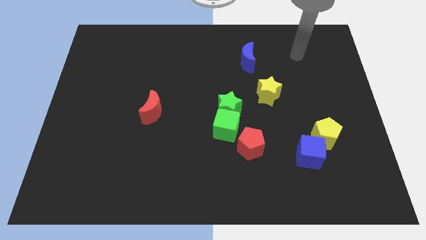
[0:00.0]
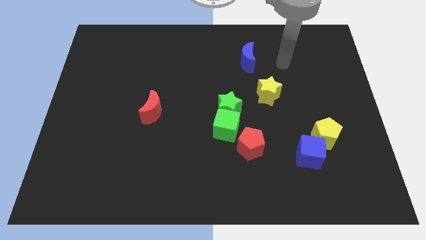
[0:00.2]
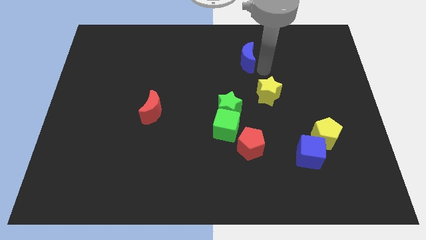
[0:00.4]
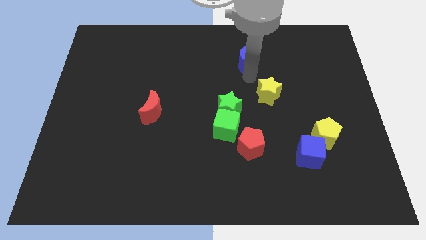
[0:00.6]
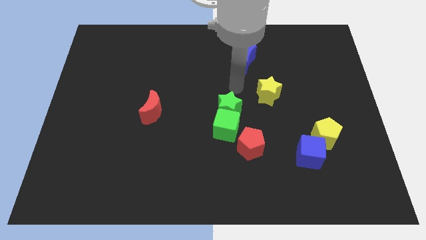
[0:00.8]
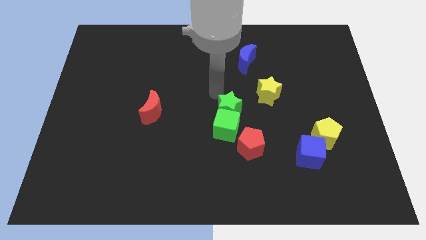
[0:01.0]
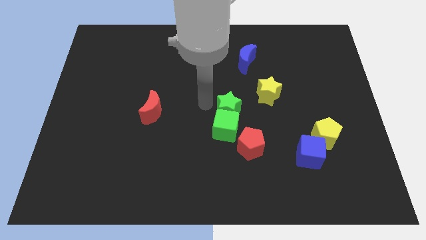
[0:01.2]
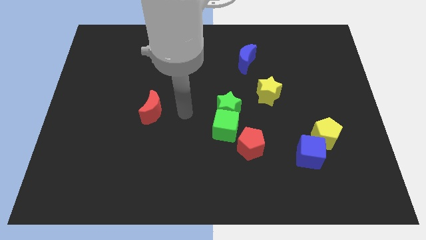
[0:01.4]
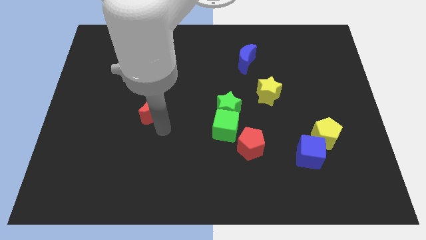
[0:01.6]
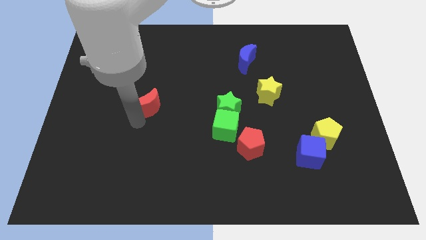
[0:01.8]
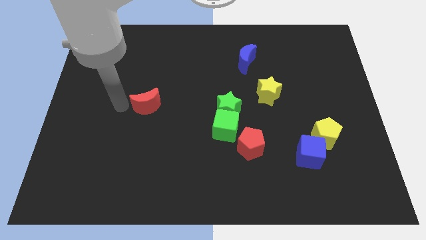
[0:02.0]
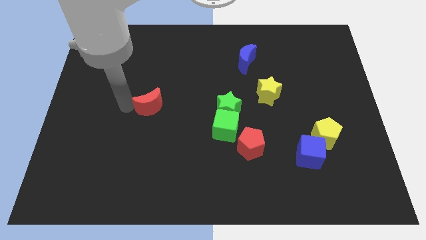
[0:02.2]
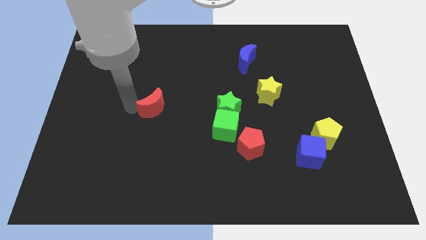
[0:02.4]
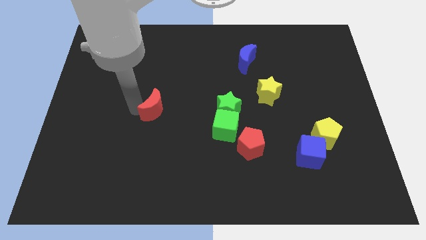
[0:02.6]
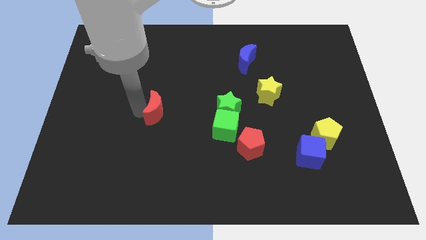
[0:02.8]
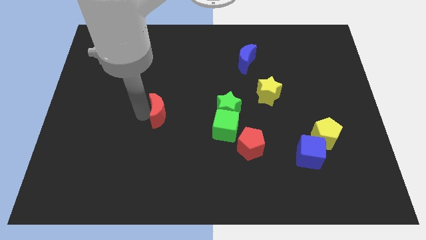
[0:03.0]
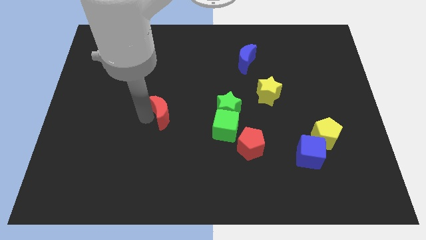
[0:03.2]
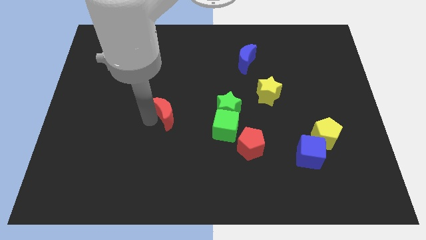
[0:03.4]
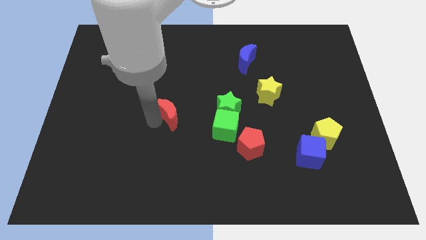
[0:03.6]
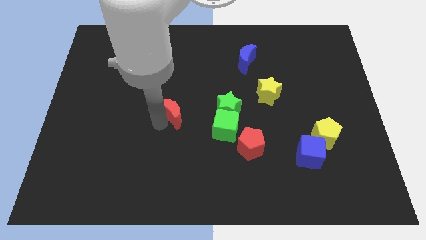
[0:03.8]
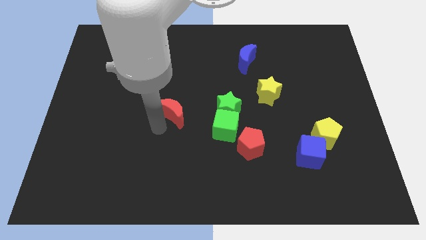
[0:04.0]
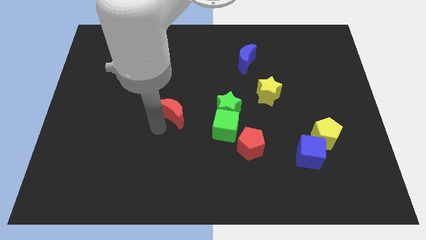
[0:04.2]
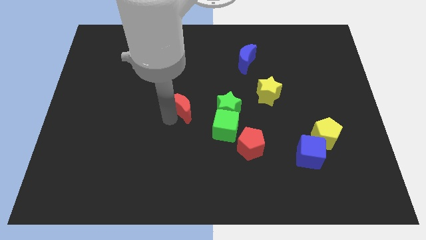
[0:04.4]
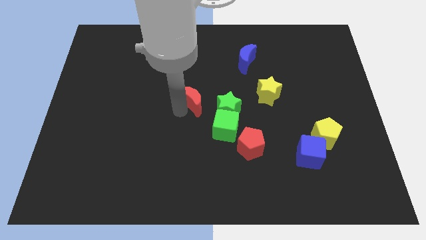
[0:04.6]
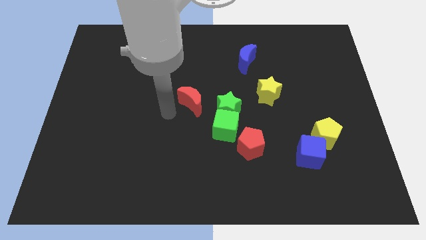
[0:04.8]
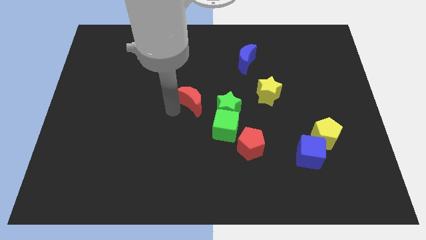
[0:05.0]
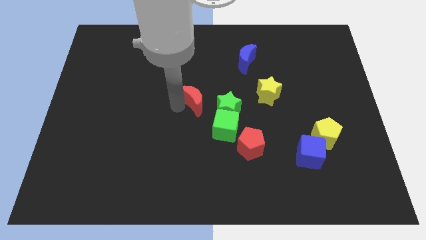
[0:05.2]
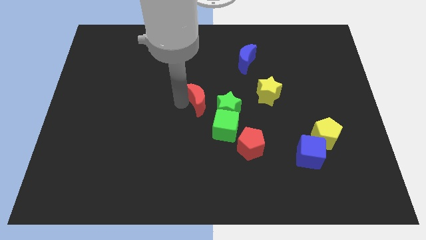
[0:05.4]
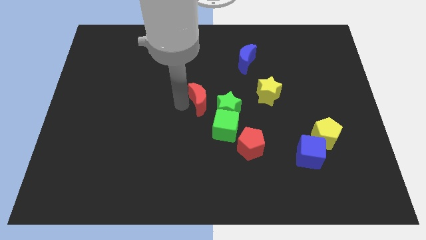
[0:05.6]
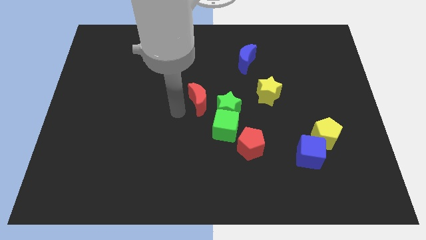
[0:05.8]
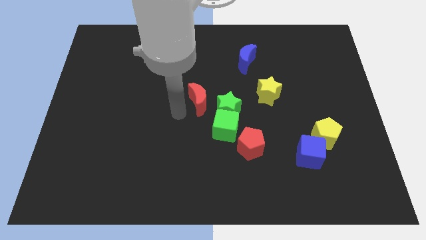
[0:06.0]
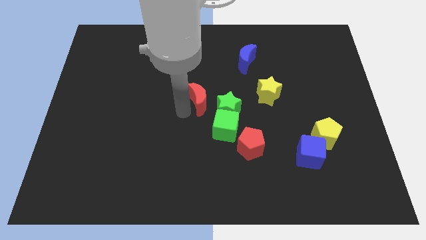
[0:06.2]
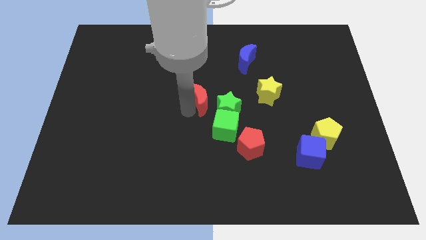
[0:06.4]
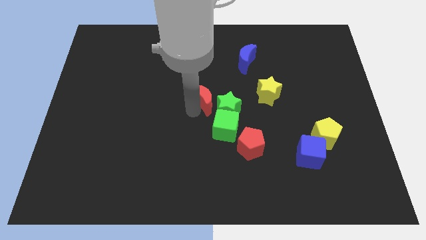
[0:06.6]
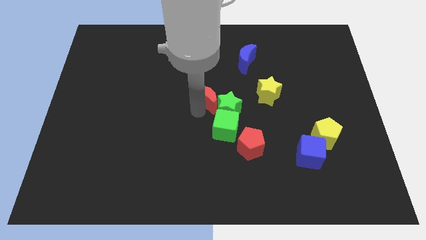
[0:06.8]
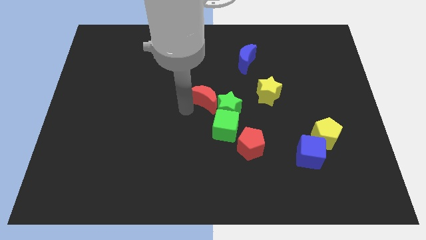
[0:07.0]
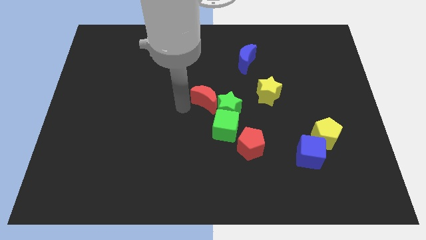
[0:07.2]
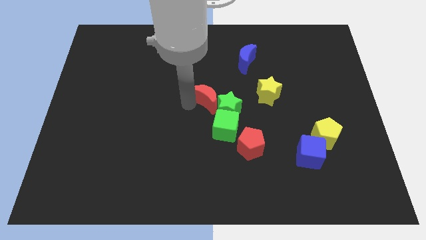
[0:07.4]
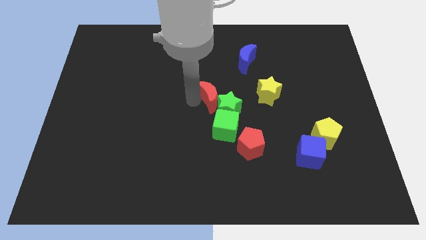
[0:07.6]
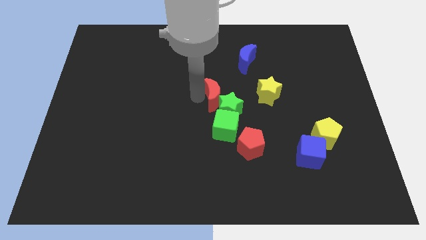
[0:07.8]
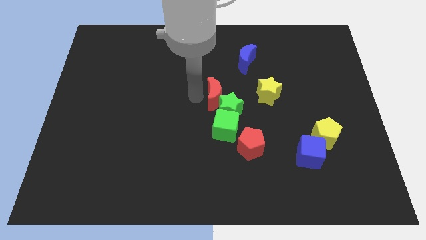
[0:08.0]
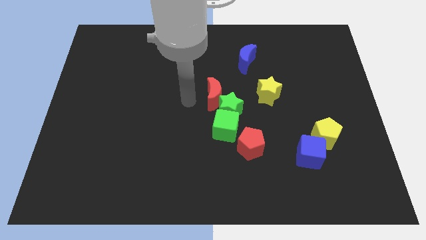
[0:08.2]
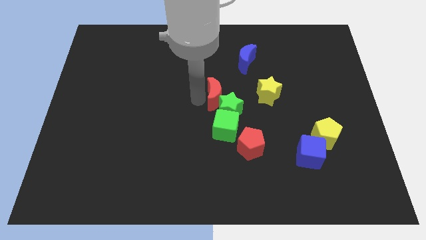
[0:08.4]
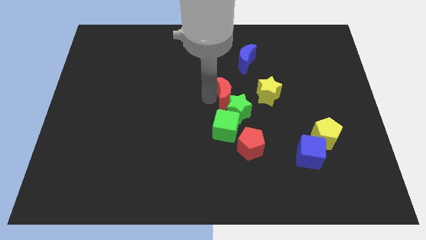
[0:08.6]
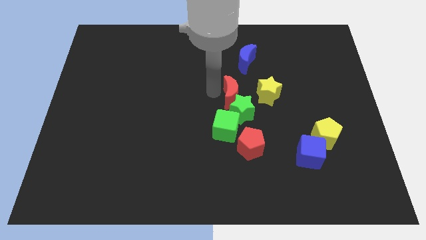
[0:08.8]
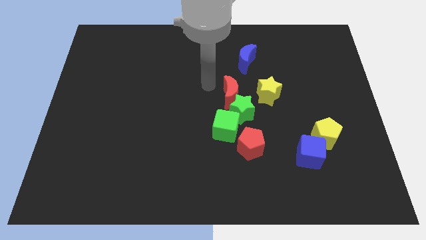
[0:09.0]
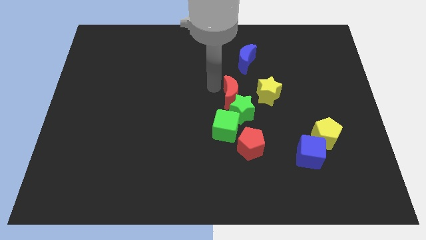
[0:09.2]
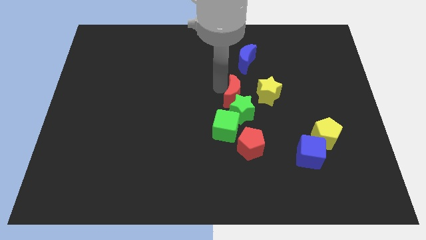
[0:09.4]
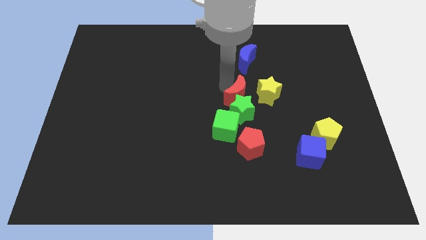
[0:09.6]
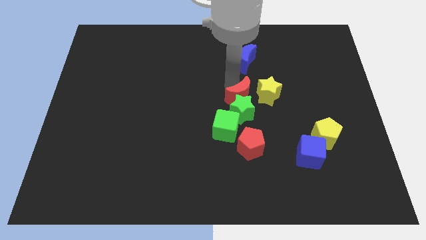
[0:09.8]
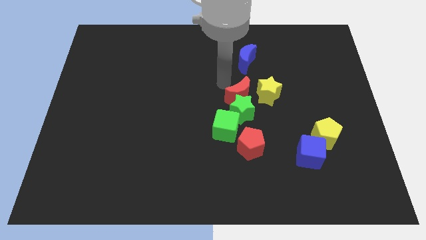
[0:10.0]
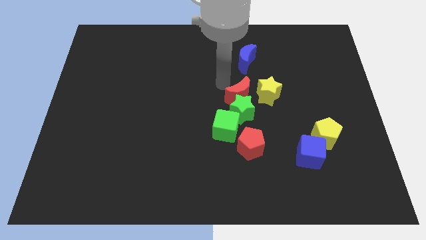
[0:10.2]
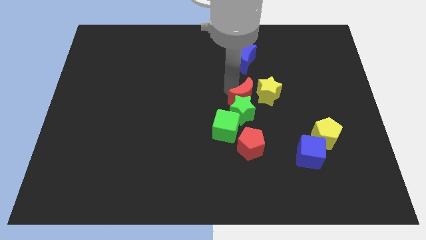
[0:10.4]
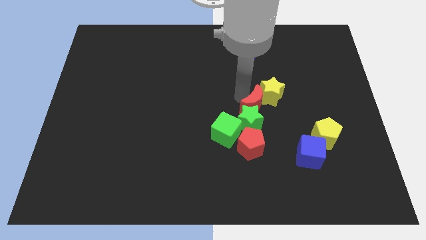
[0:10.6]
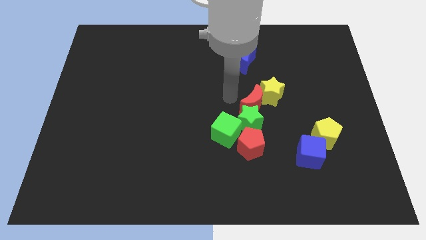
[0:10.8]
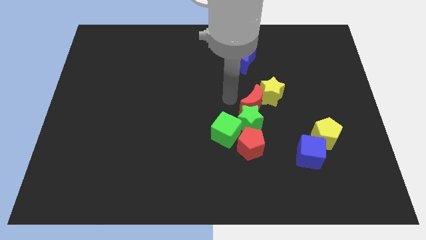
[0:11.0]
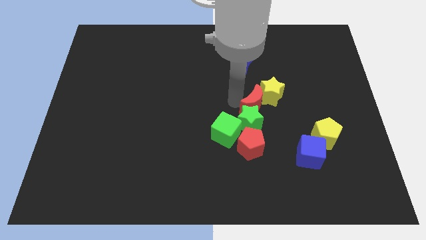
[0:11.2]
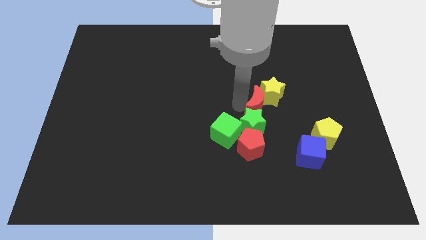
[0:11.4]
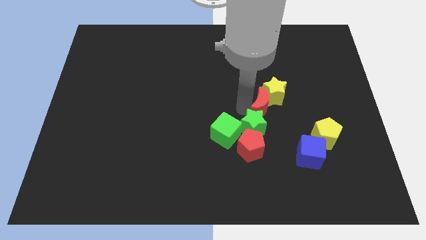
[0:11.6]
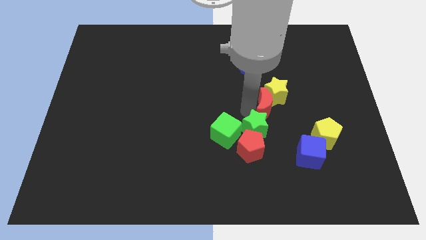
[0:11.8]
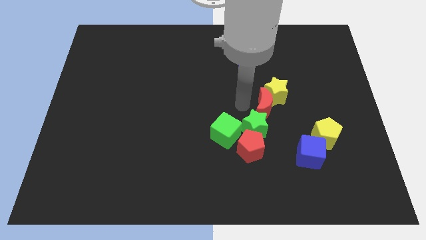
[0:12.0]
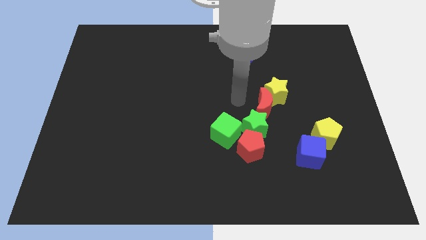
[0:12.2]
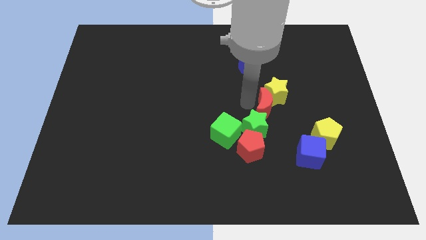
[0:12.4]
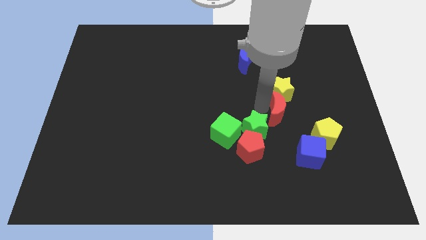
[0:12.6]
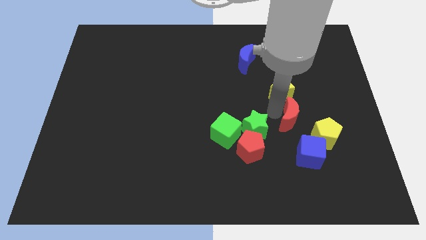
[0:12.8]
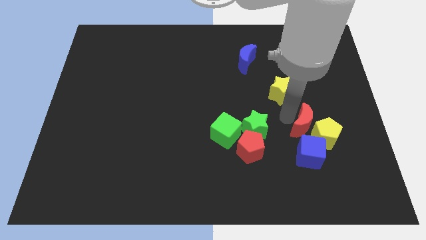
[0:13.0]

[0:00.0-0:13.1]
move the red moon close to the yellow pentagon

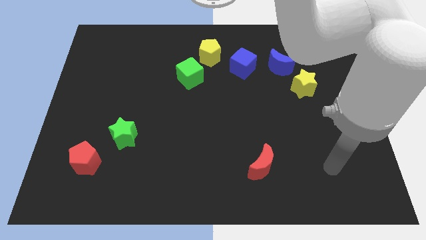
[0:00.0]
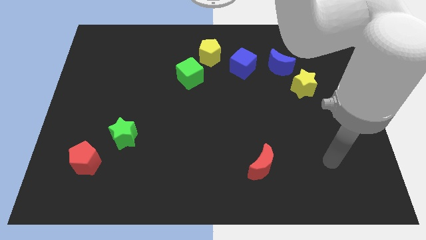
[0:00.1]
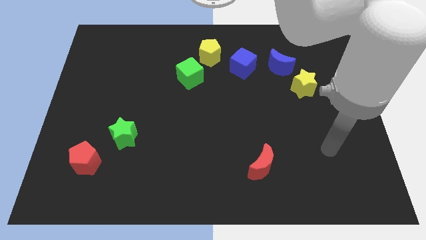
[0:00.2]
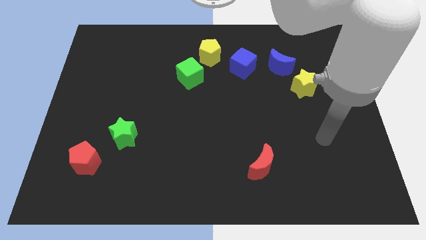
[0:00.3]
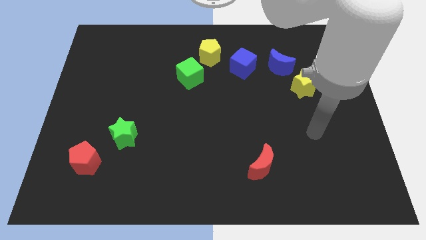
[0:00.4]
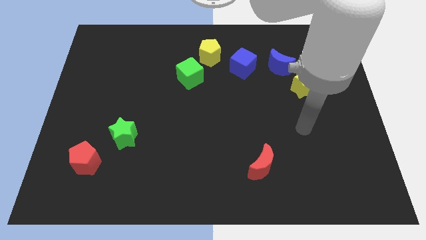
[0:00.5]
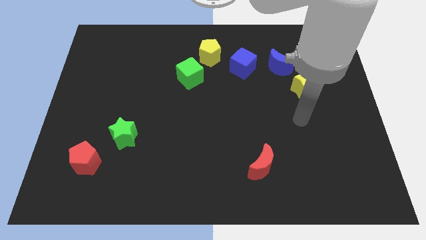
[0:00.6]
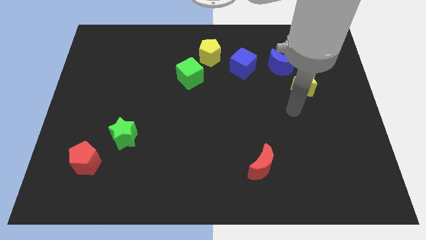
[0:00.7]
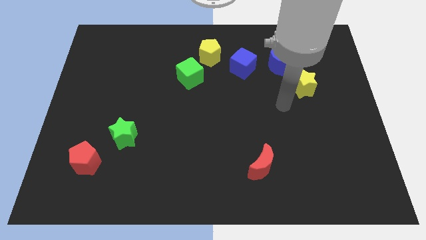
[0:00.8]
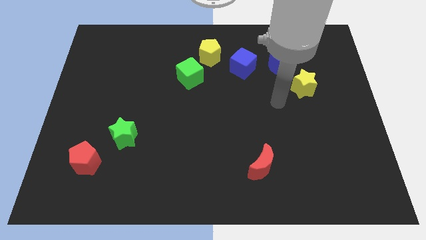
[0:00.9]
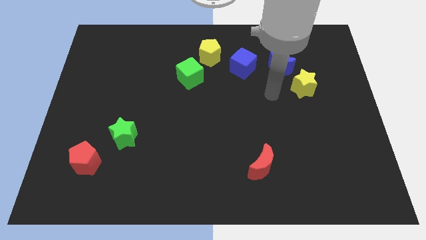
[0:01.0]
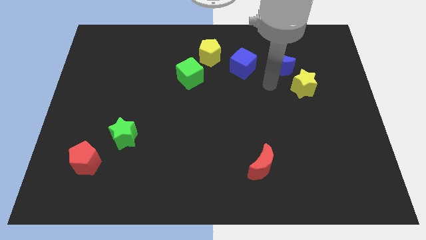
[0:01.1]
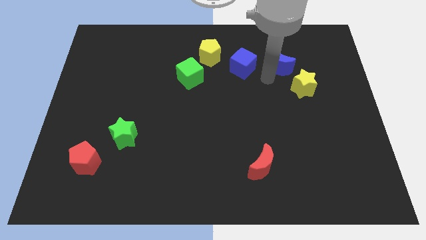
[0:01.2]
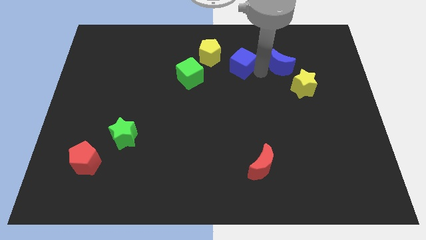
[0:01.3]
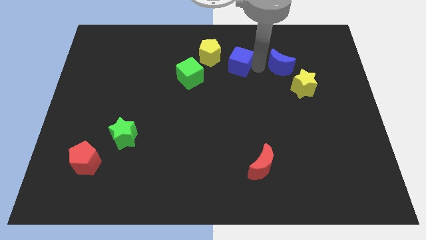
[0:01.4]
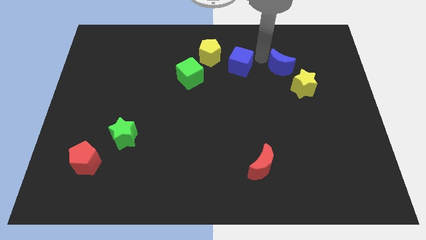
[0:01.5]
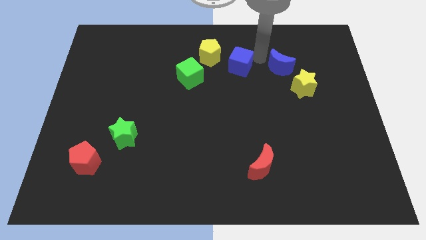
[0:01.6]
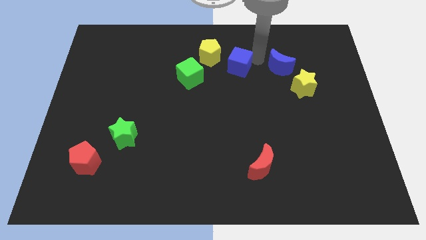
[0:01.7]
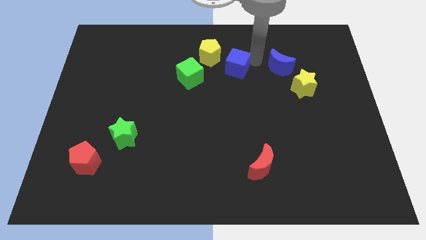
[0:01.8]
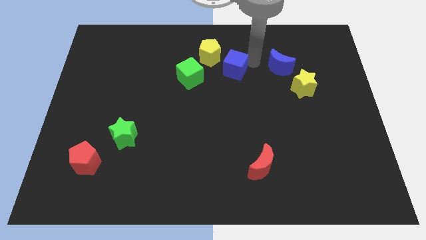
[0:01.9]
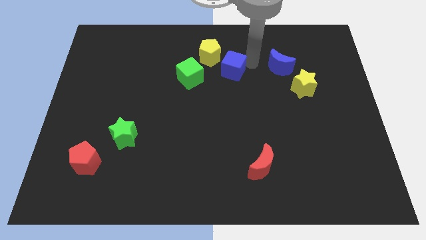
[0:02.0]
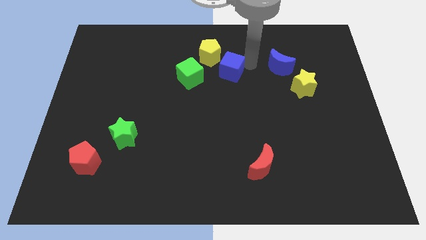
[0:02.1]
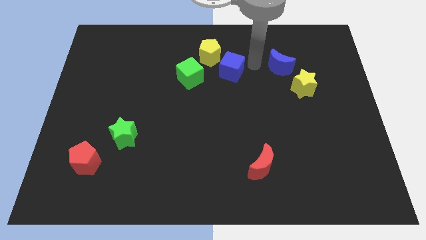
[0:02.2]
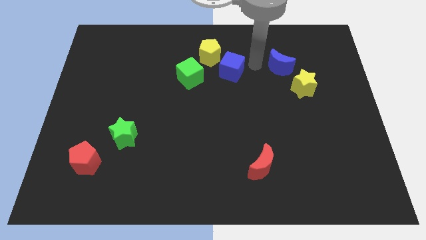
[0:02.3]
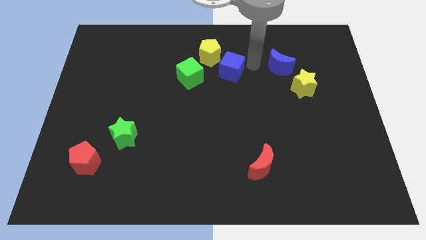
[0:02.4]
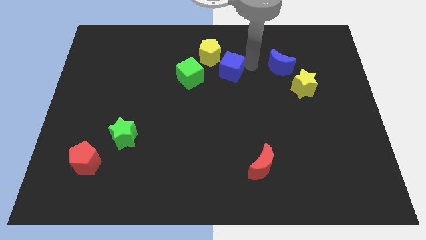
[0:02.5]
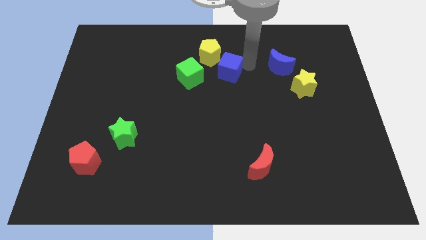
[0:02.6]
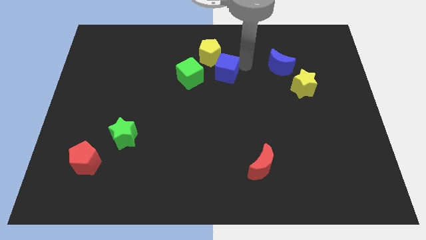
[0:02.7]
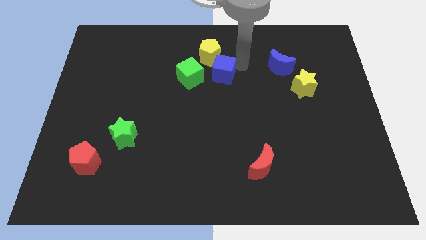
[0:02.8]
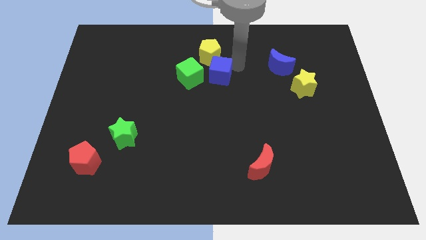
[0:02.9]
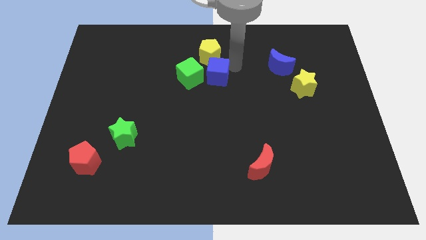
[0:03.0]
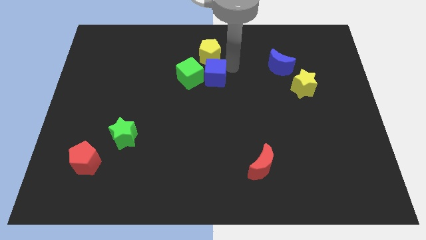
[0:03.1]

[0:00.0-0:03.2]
put the blue cube close to the green cube
